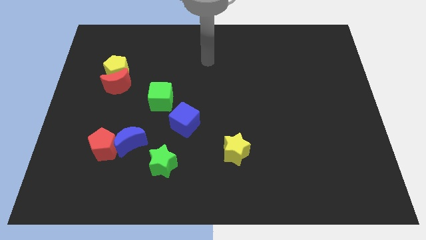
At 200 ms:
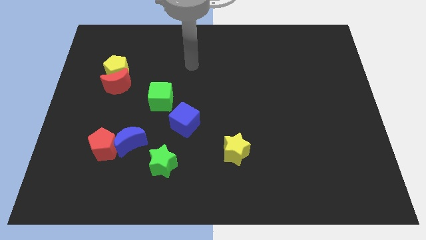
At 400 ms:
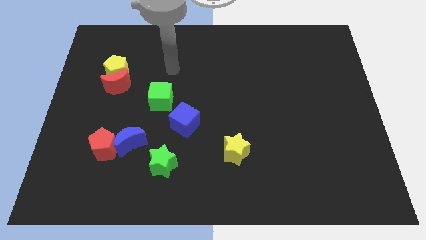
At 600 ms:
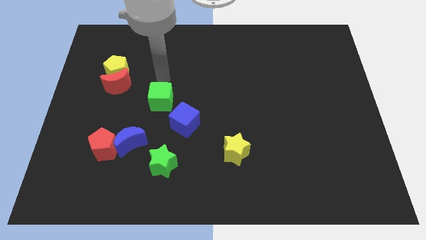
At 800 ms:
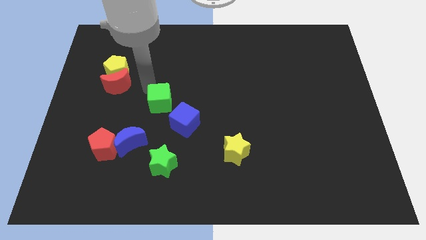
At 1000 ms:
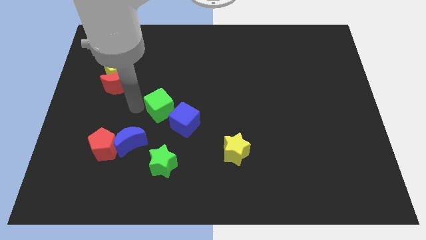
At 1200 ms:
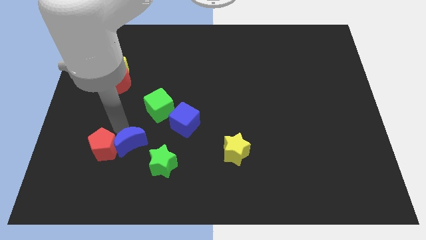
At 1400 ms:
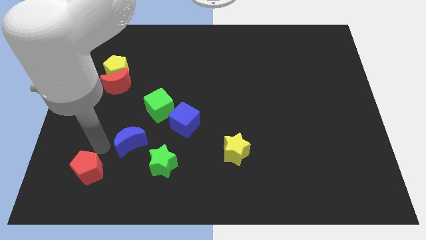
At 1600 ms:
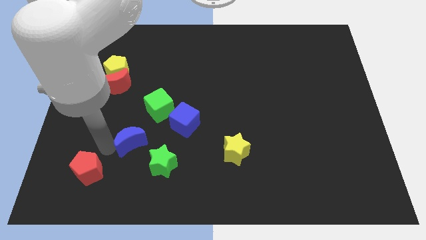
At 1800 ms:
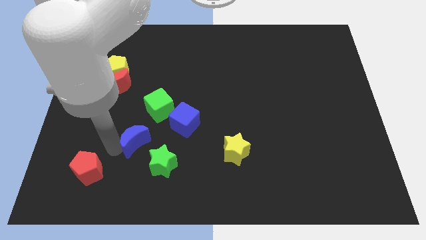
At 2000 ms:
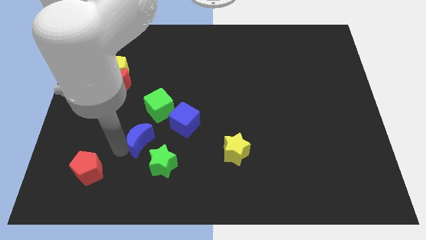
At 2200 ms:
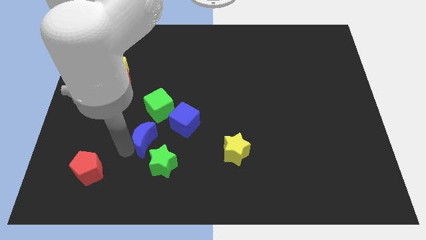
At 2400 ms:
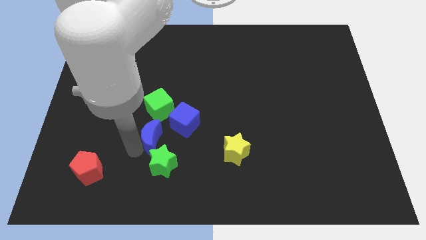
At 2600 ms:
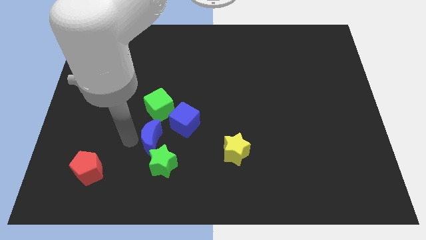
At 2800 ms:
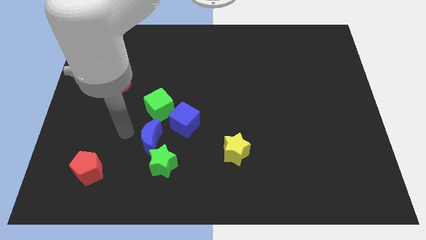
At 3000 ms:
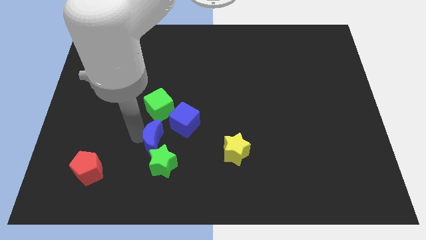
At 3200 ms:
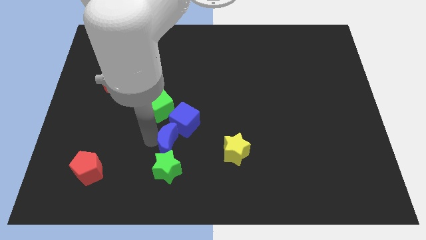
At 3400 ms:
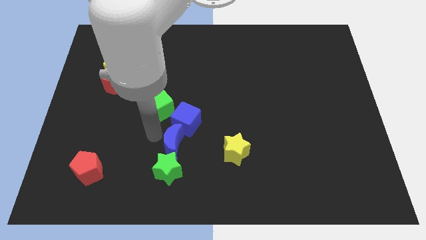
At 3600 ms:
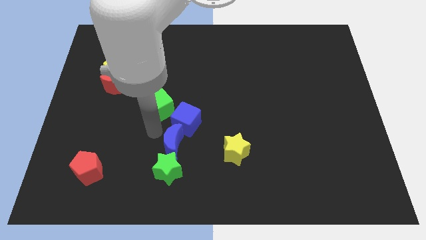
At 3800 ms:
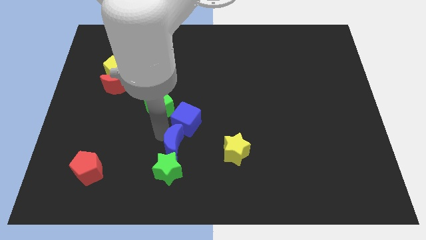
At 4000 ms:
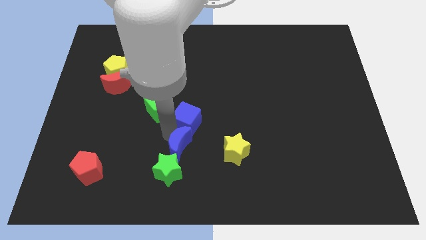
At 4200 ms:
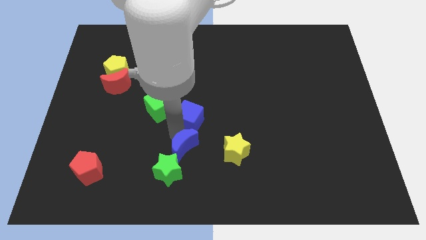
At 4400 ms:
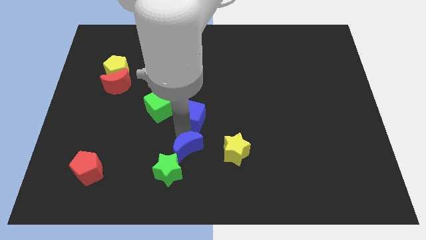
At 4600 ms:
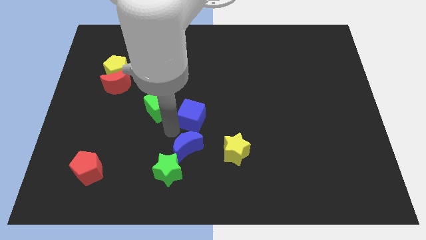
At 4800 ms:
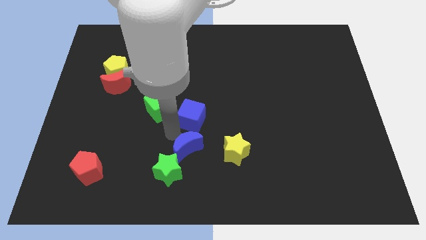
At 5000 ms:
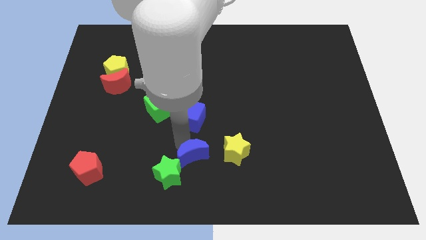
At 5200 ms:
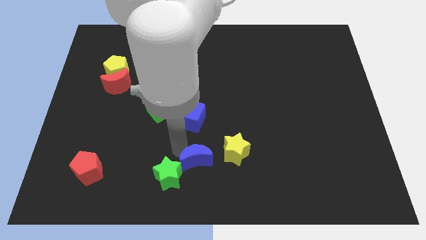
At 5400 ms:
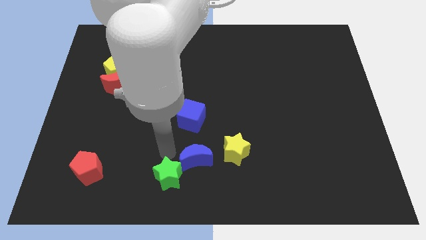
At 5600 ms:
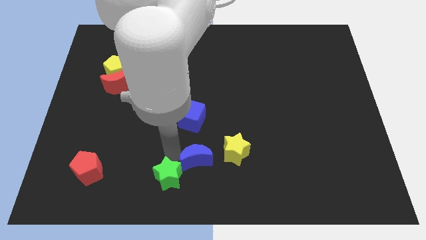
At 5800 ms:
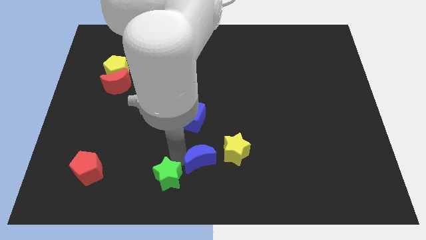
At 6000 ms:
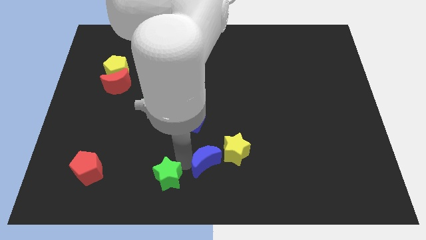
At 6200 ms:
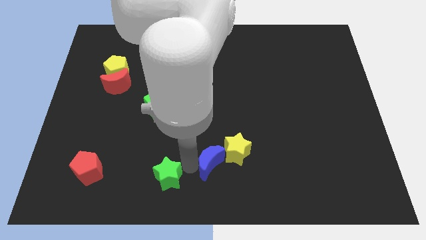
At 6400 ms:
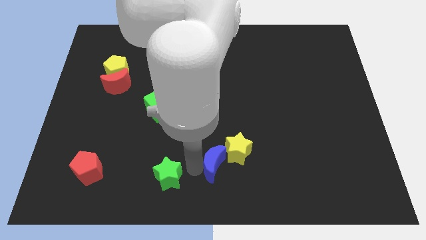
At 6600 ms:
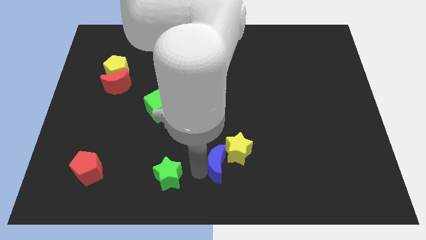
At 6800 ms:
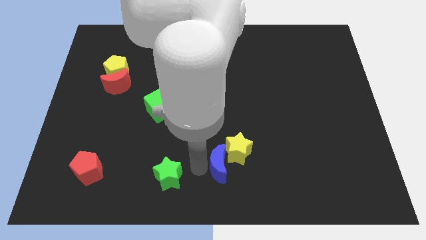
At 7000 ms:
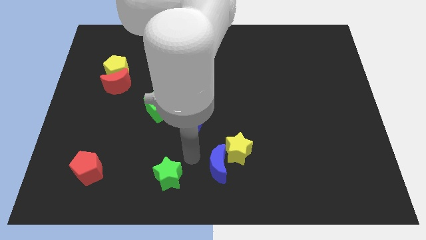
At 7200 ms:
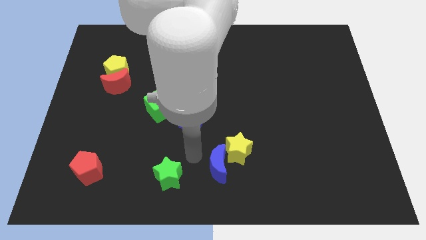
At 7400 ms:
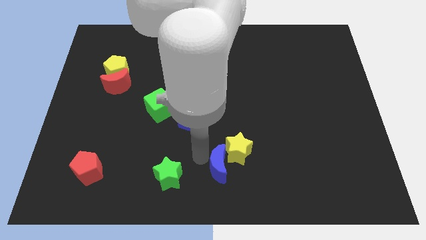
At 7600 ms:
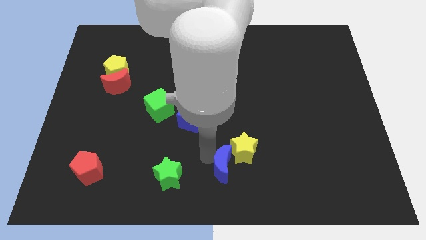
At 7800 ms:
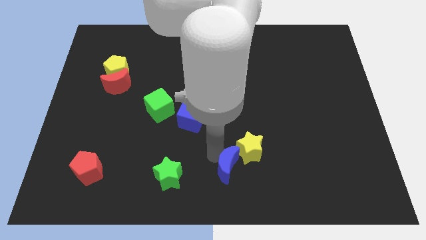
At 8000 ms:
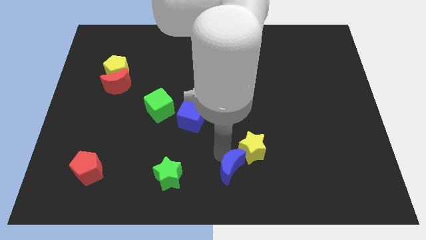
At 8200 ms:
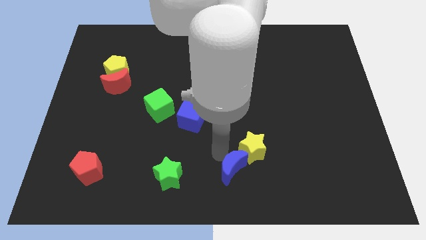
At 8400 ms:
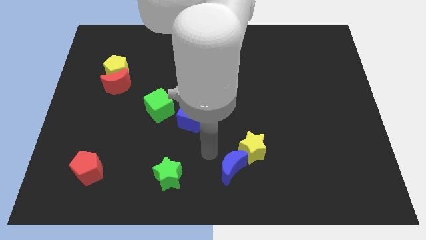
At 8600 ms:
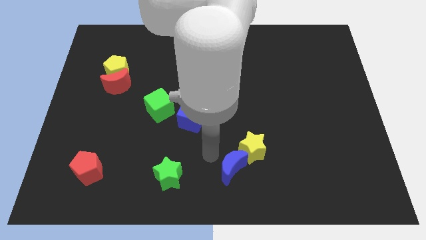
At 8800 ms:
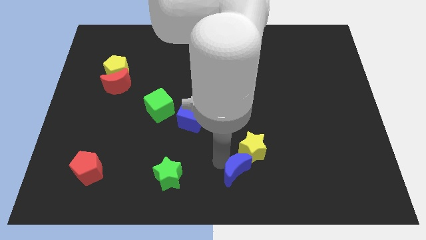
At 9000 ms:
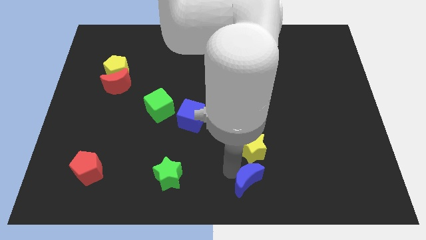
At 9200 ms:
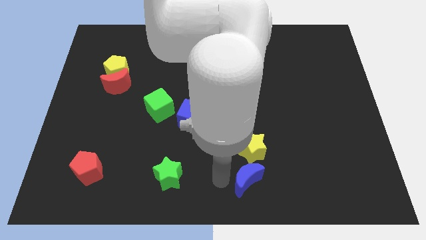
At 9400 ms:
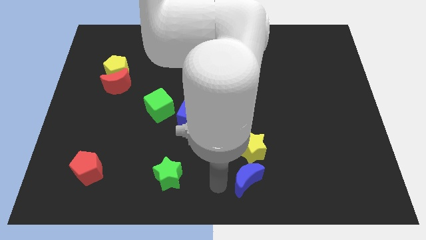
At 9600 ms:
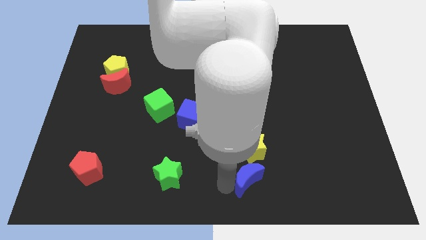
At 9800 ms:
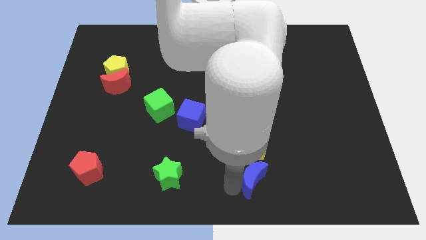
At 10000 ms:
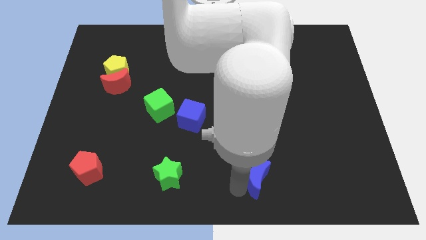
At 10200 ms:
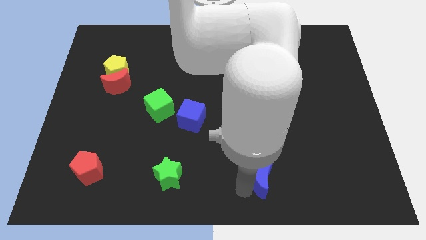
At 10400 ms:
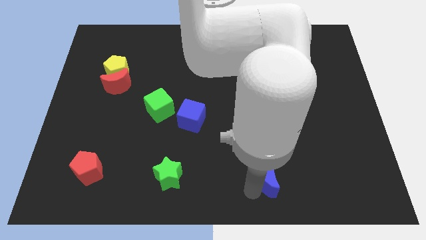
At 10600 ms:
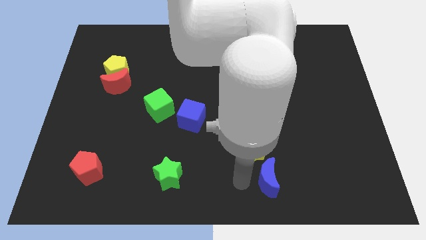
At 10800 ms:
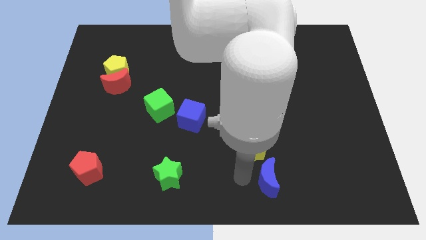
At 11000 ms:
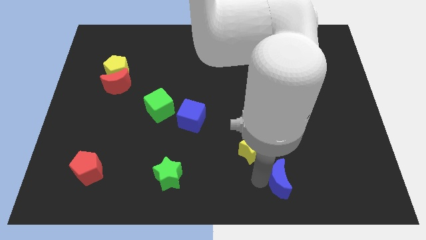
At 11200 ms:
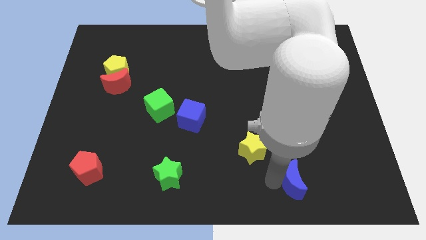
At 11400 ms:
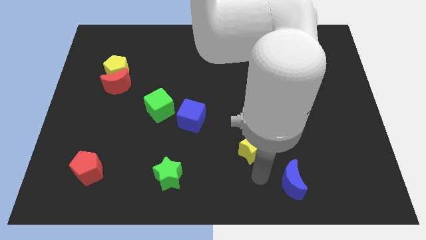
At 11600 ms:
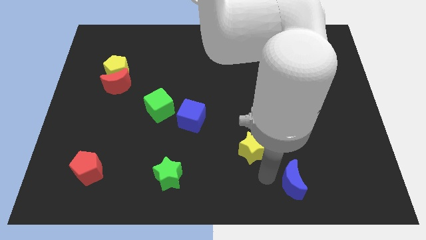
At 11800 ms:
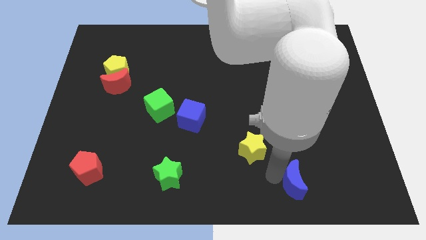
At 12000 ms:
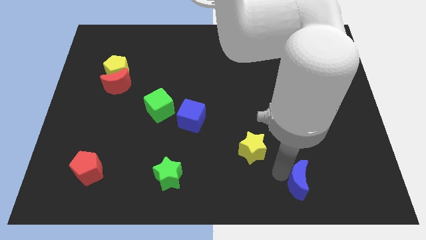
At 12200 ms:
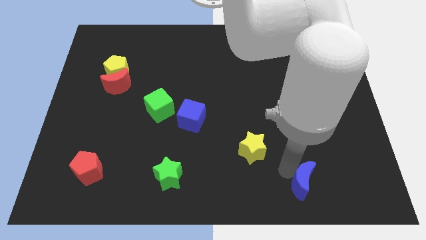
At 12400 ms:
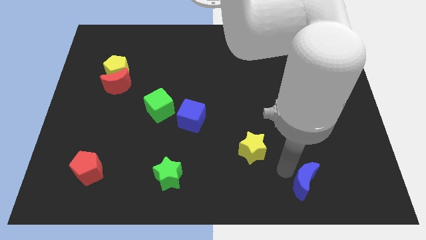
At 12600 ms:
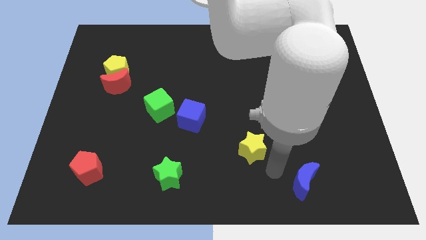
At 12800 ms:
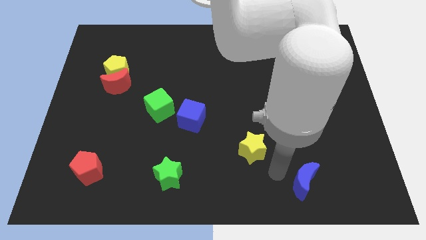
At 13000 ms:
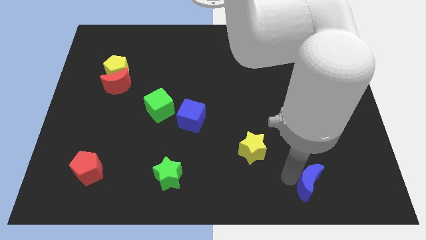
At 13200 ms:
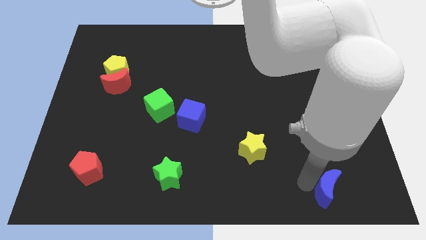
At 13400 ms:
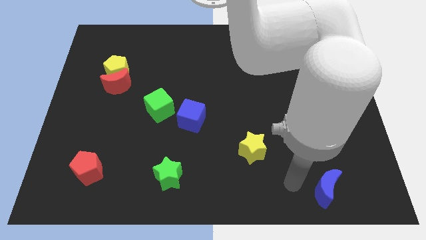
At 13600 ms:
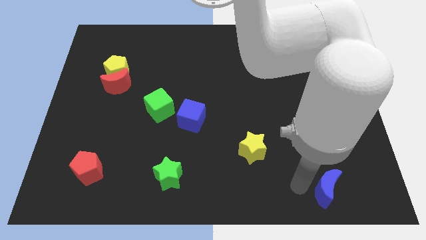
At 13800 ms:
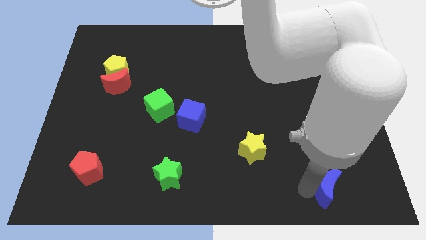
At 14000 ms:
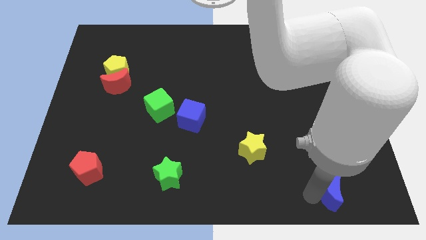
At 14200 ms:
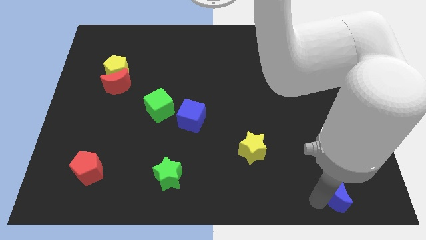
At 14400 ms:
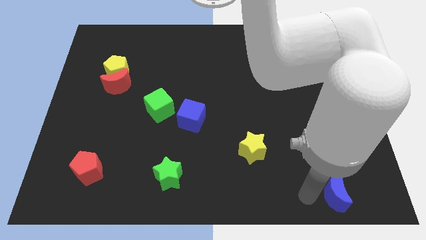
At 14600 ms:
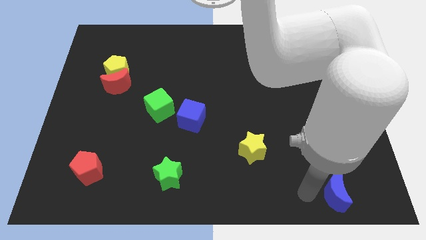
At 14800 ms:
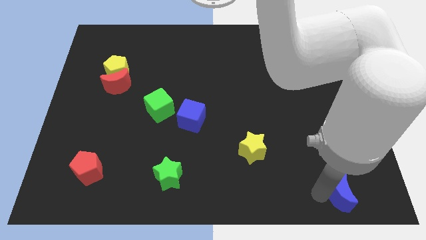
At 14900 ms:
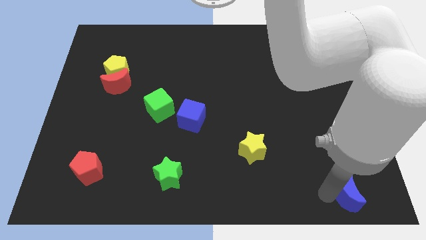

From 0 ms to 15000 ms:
move the blue moon to the lower right corner
